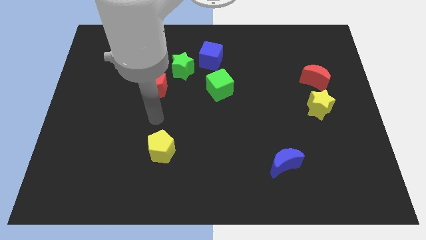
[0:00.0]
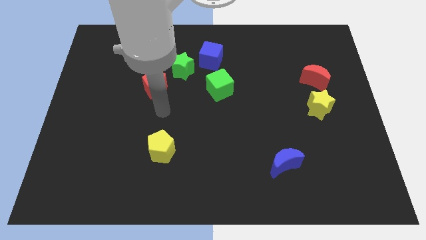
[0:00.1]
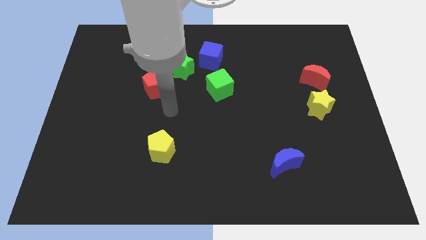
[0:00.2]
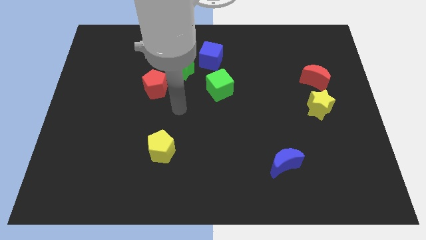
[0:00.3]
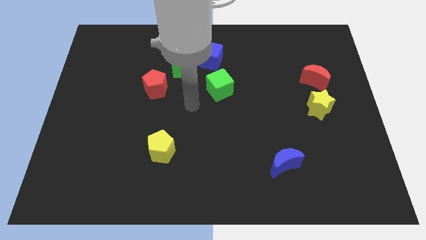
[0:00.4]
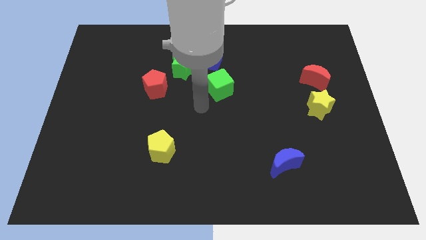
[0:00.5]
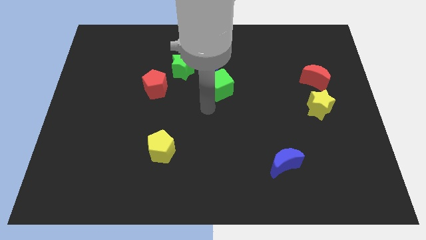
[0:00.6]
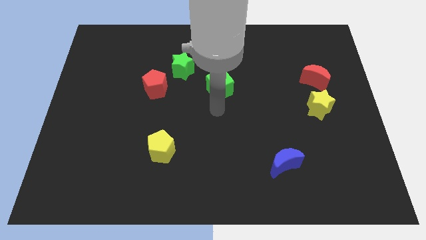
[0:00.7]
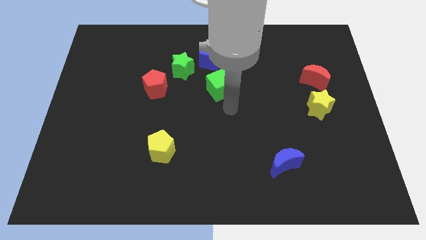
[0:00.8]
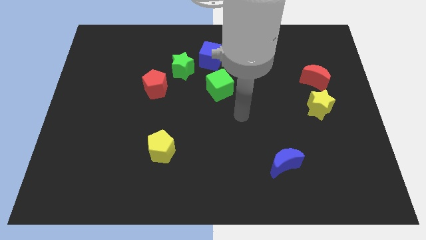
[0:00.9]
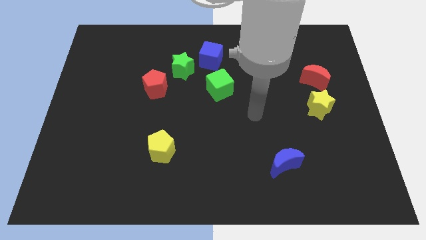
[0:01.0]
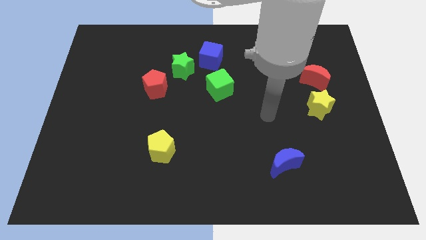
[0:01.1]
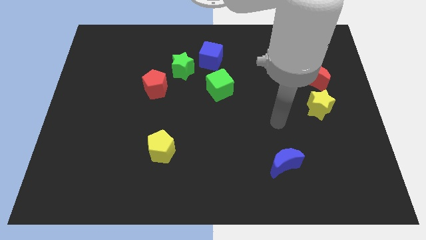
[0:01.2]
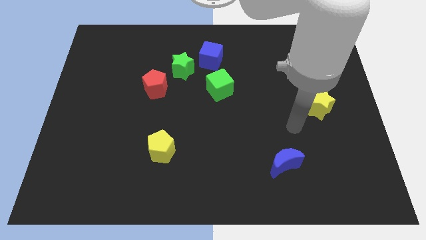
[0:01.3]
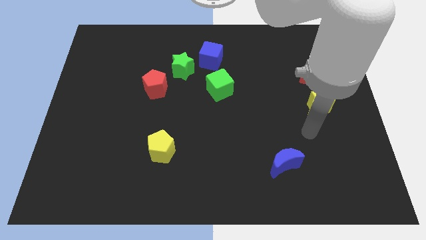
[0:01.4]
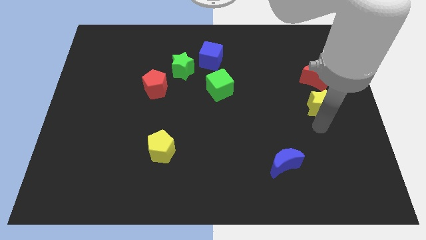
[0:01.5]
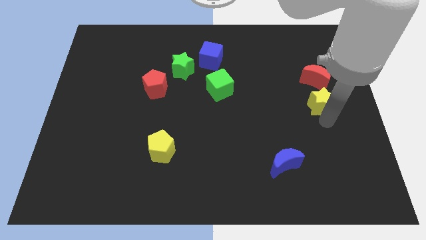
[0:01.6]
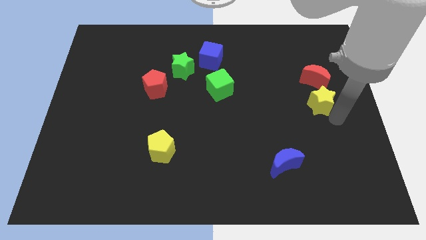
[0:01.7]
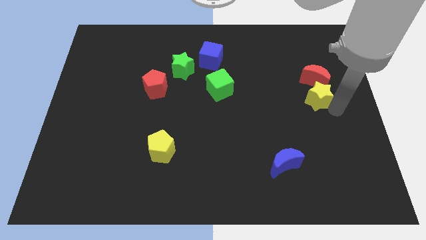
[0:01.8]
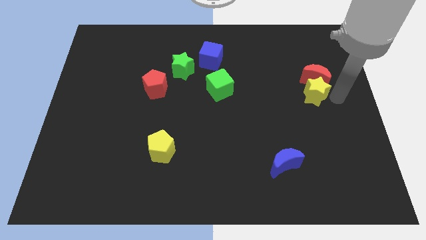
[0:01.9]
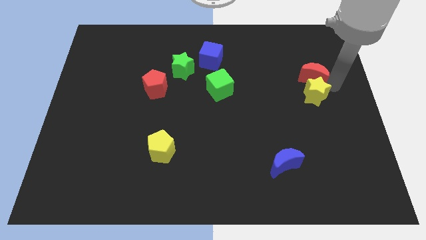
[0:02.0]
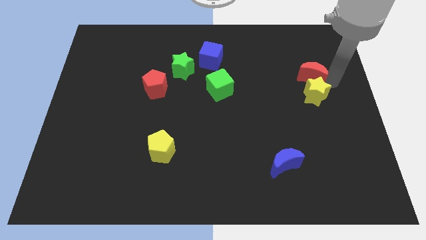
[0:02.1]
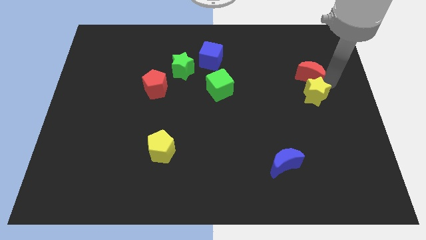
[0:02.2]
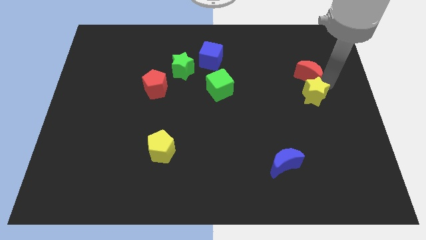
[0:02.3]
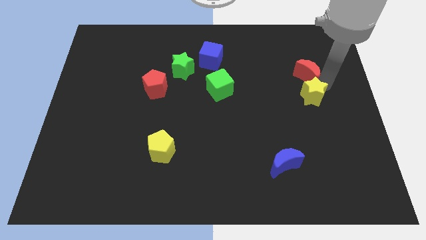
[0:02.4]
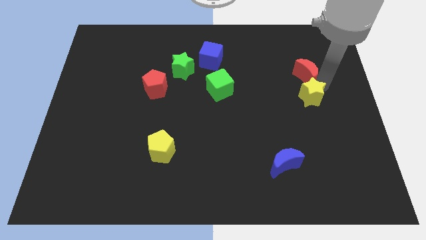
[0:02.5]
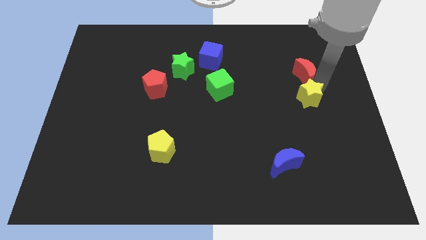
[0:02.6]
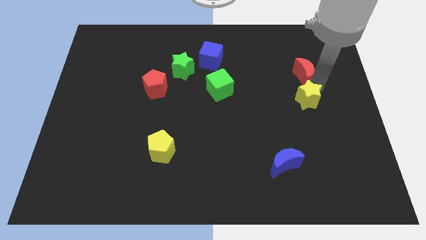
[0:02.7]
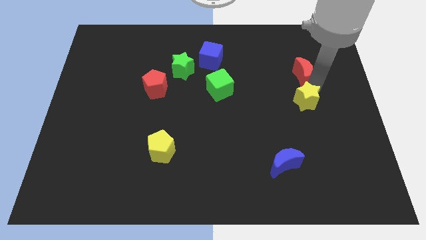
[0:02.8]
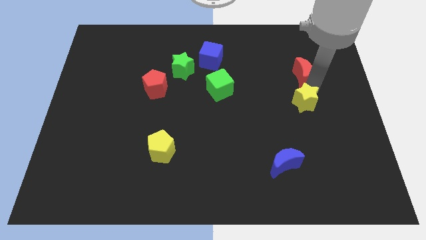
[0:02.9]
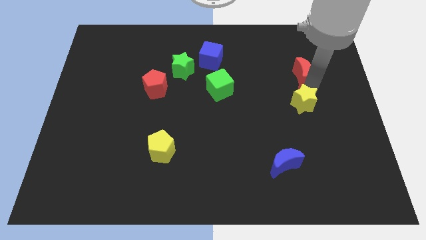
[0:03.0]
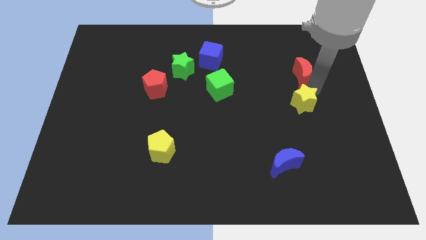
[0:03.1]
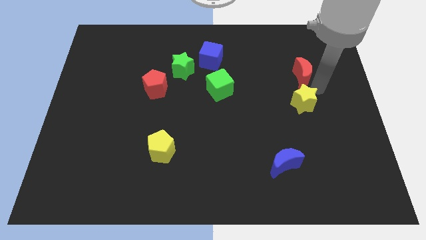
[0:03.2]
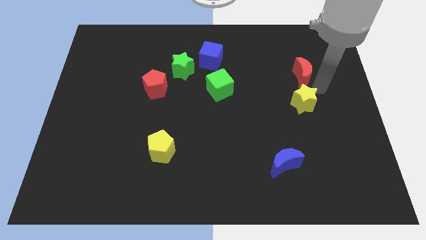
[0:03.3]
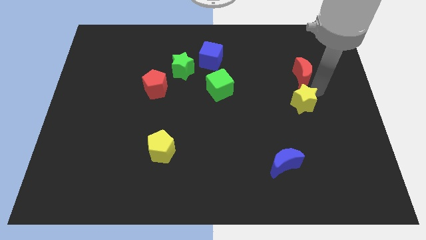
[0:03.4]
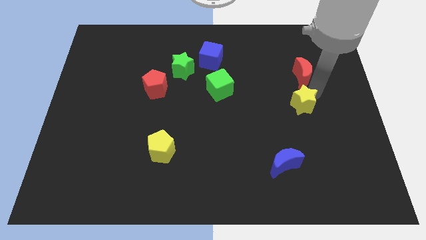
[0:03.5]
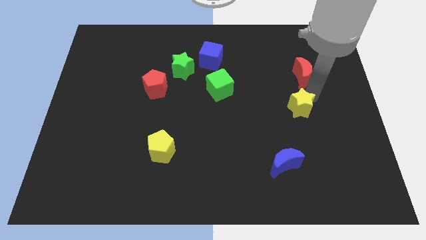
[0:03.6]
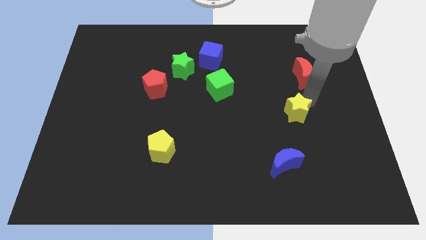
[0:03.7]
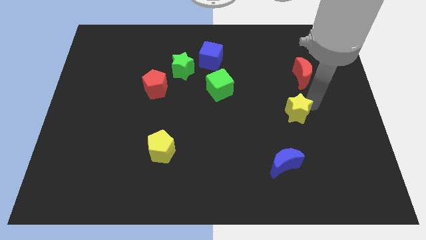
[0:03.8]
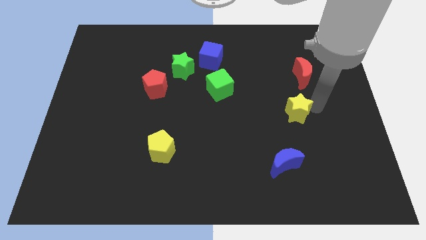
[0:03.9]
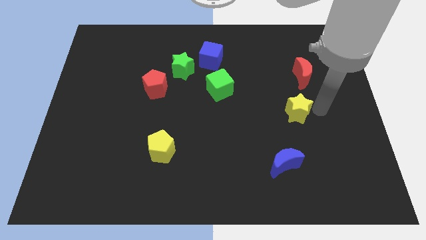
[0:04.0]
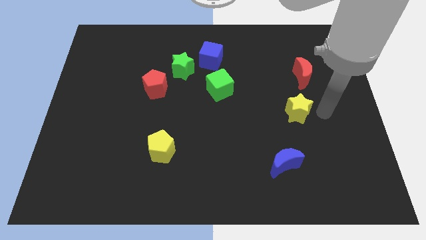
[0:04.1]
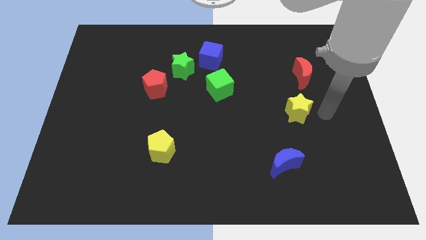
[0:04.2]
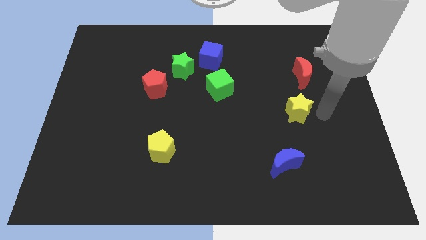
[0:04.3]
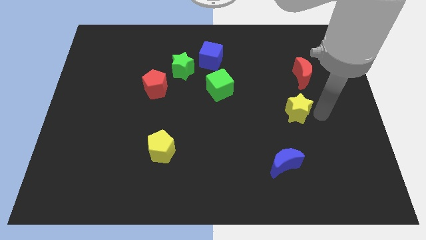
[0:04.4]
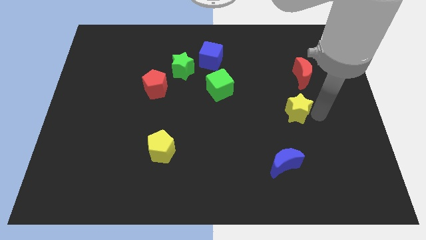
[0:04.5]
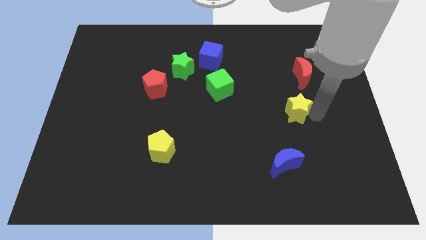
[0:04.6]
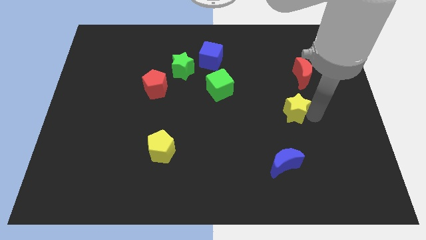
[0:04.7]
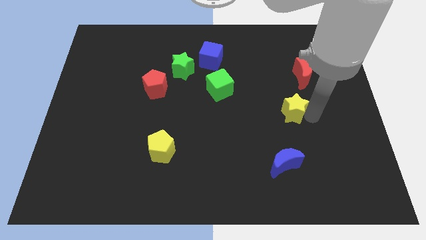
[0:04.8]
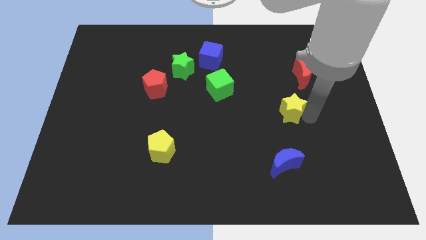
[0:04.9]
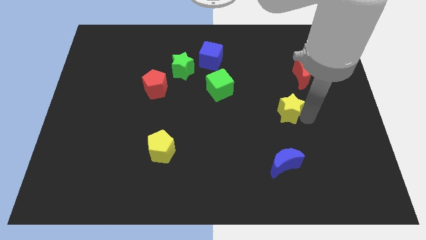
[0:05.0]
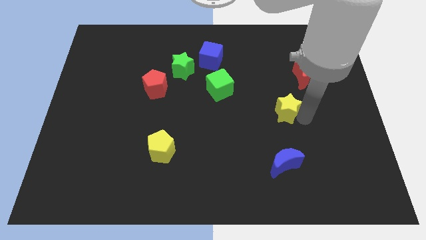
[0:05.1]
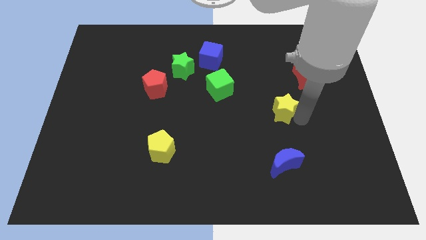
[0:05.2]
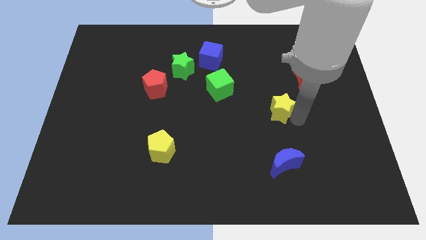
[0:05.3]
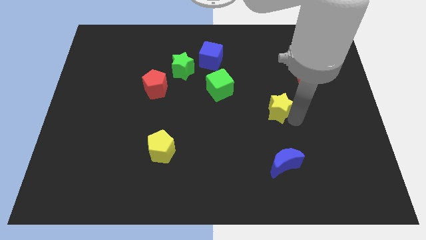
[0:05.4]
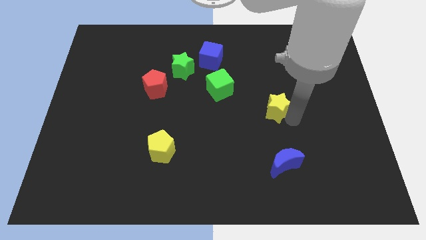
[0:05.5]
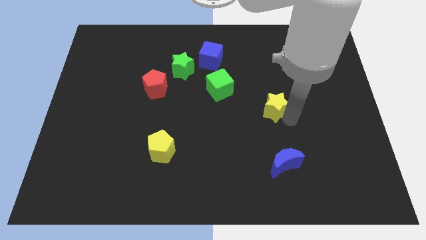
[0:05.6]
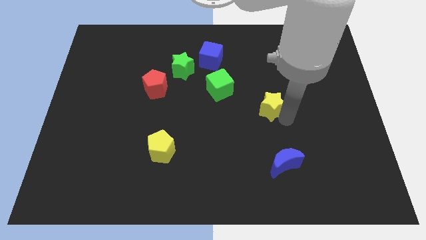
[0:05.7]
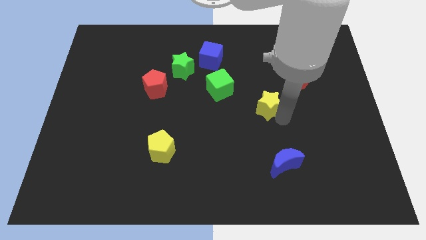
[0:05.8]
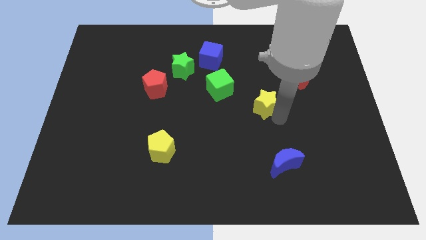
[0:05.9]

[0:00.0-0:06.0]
put the yellow star to the bottom right side of the green cube

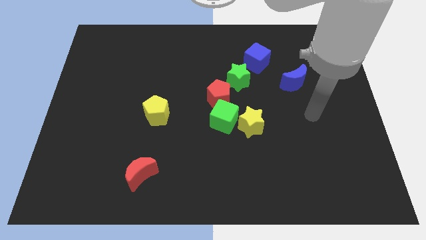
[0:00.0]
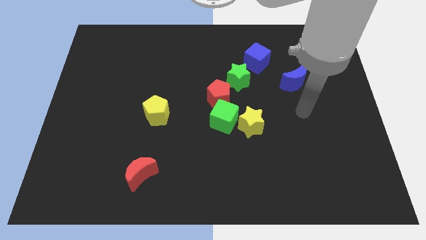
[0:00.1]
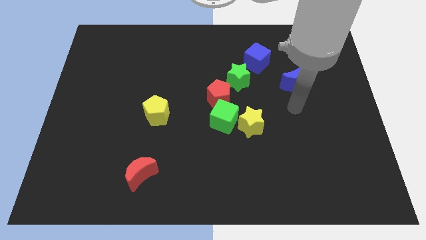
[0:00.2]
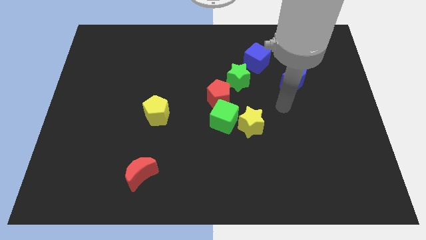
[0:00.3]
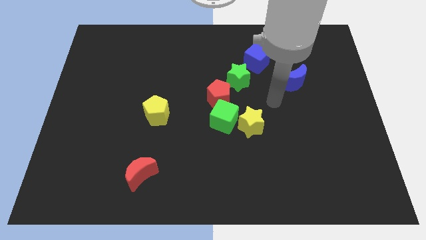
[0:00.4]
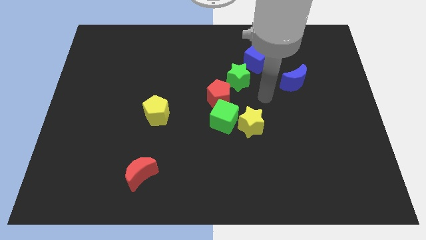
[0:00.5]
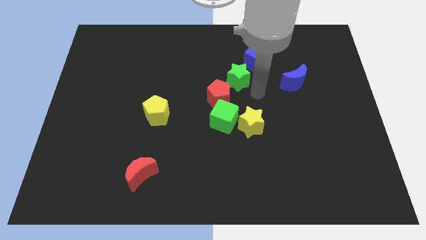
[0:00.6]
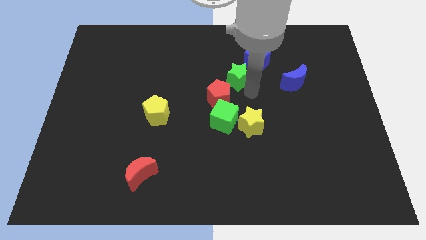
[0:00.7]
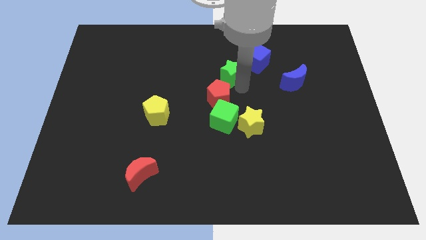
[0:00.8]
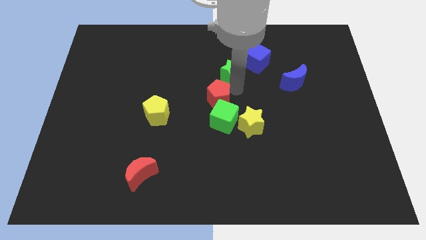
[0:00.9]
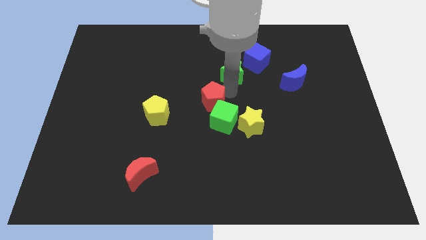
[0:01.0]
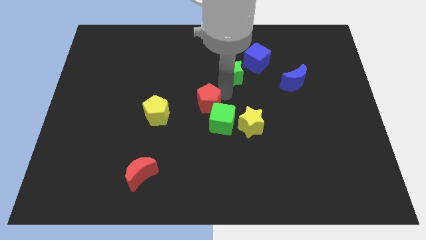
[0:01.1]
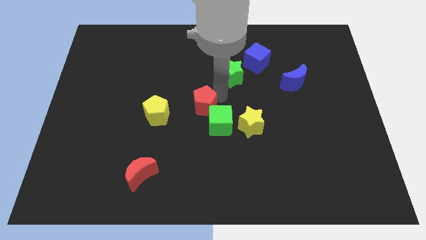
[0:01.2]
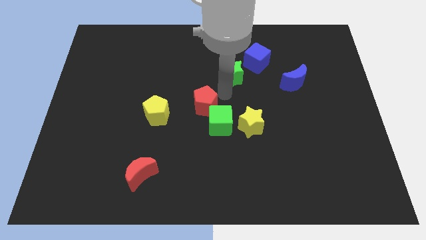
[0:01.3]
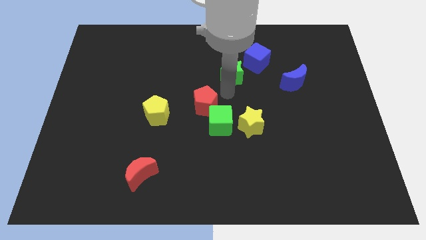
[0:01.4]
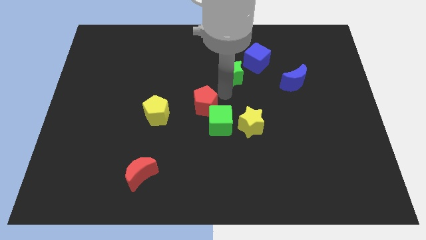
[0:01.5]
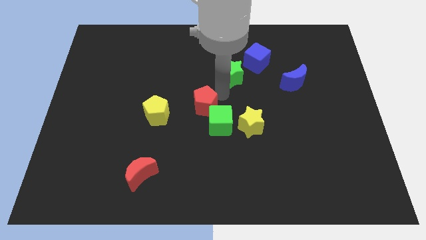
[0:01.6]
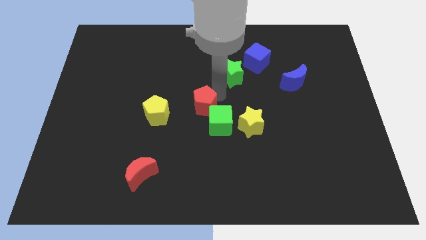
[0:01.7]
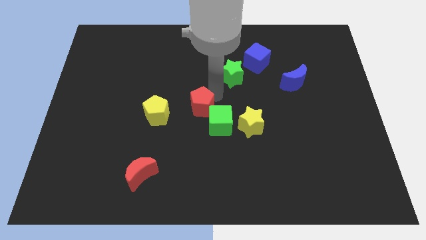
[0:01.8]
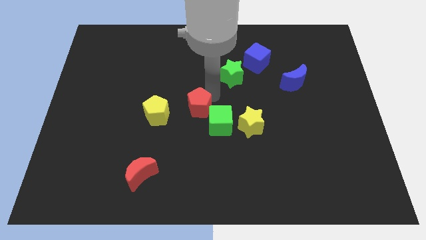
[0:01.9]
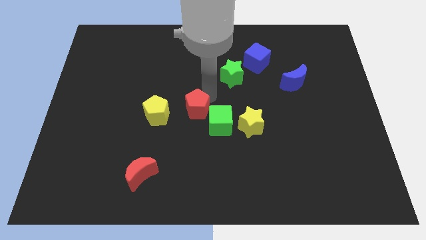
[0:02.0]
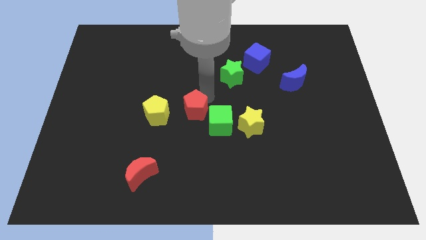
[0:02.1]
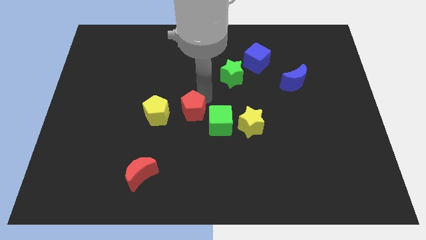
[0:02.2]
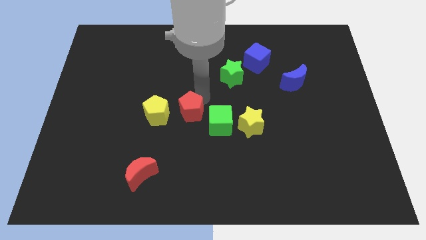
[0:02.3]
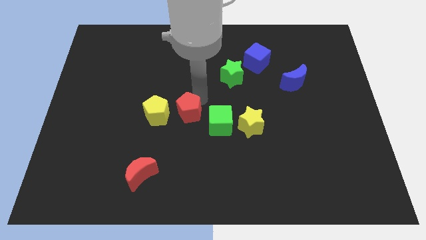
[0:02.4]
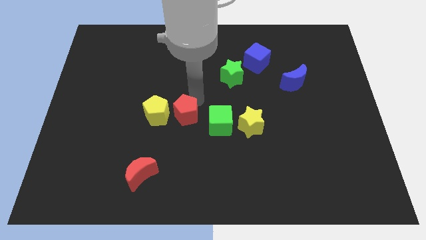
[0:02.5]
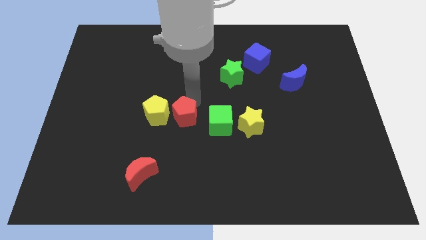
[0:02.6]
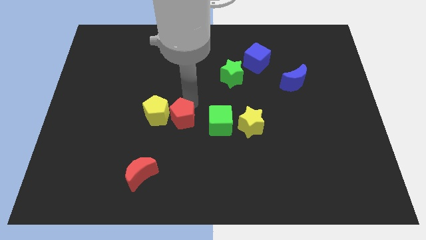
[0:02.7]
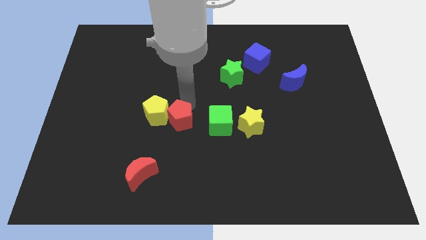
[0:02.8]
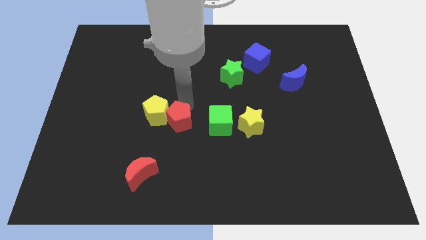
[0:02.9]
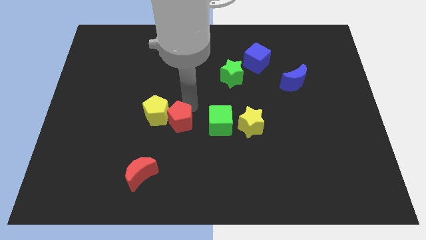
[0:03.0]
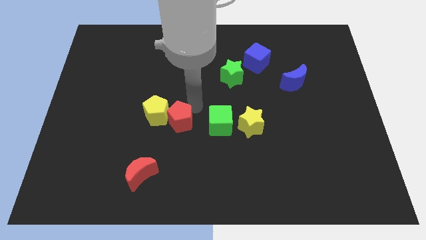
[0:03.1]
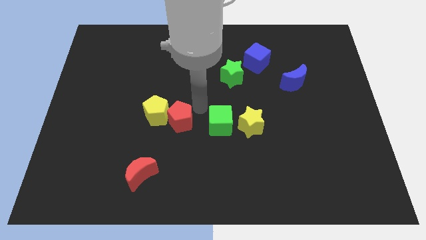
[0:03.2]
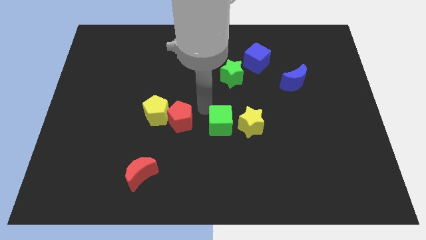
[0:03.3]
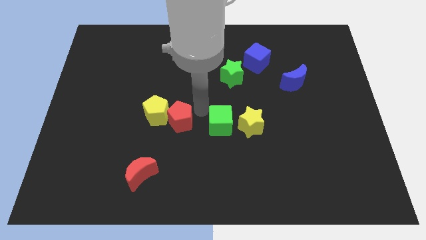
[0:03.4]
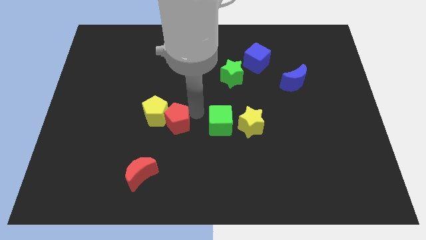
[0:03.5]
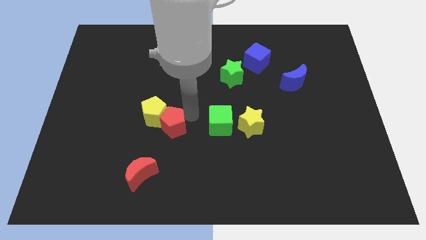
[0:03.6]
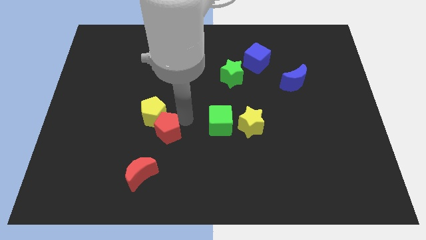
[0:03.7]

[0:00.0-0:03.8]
slide the red pentagon to the top of the red moon
